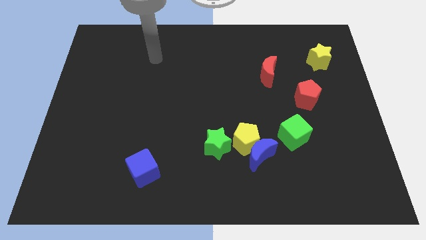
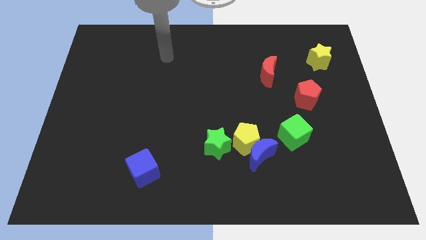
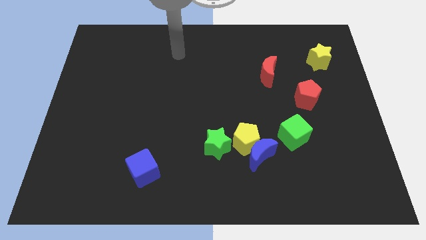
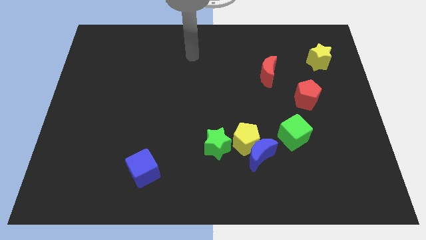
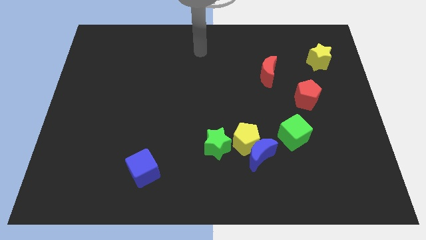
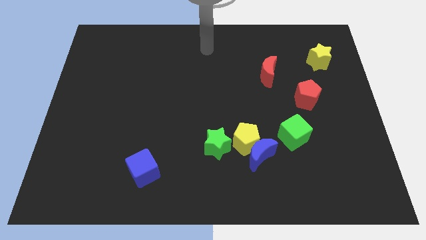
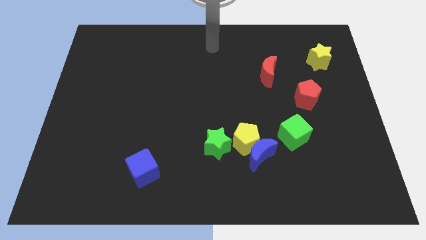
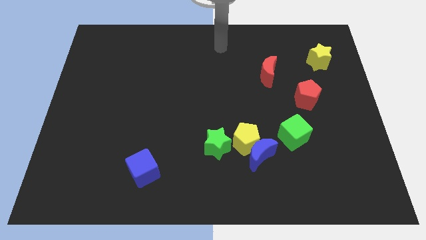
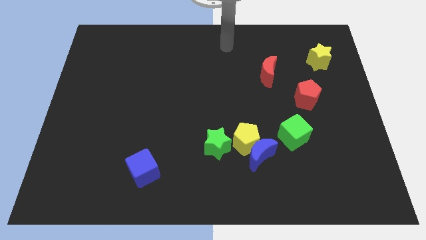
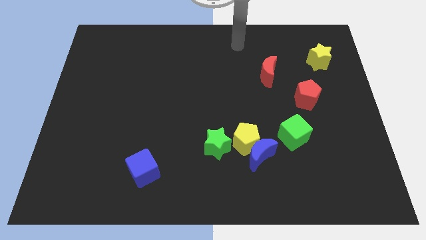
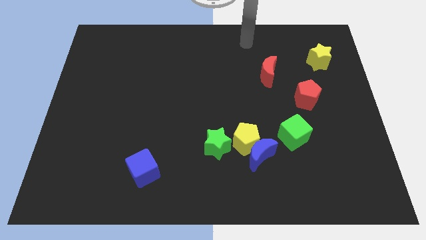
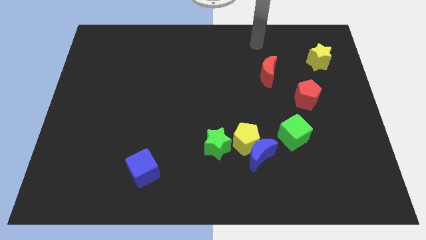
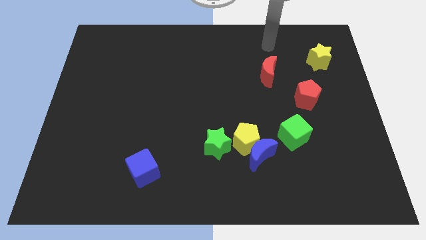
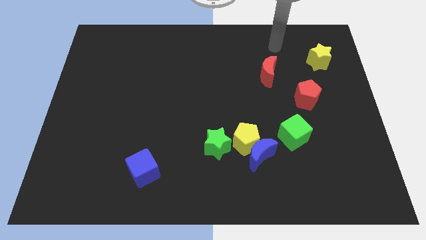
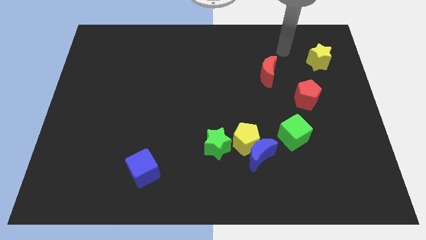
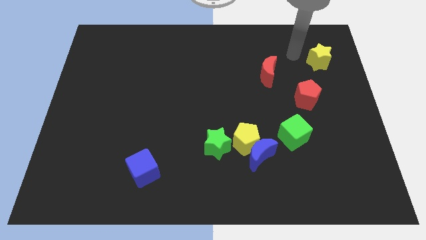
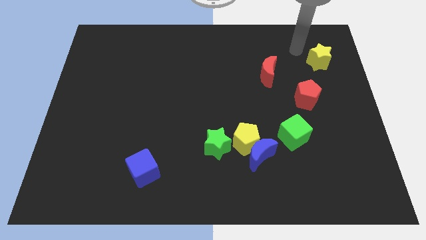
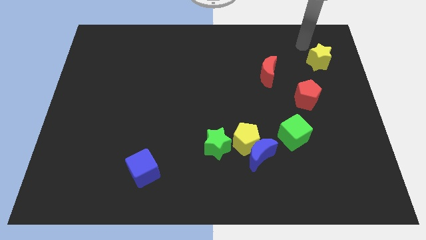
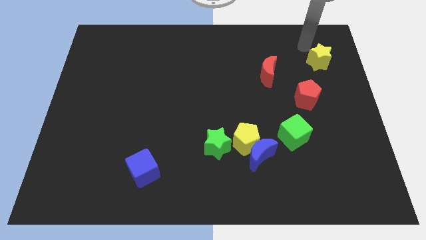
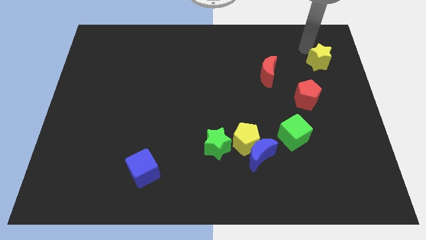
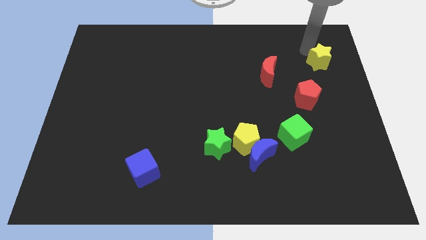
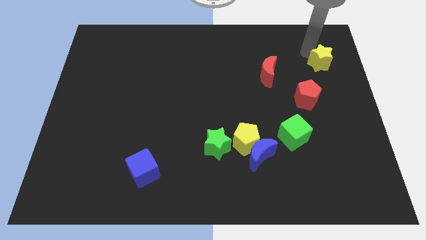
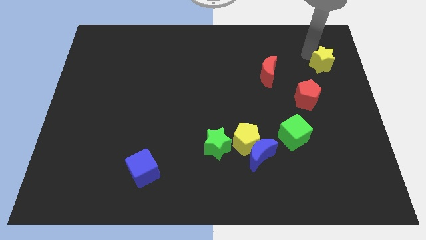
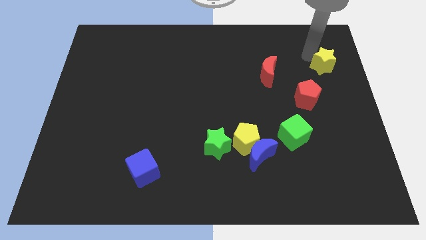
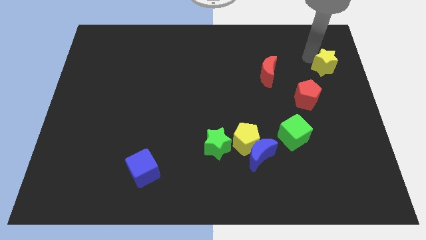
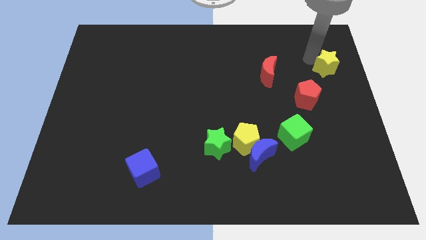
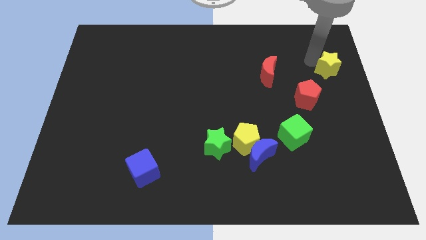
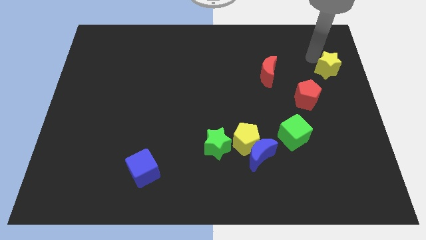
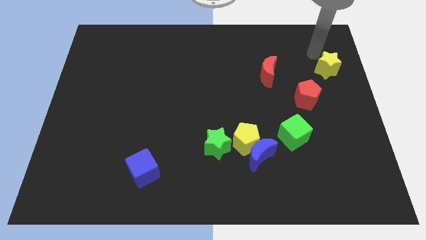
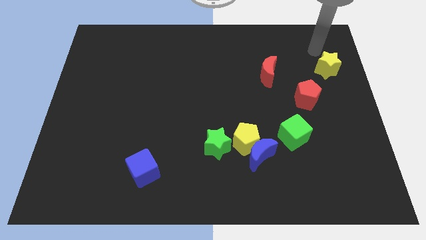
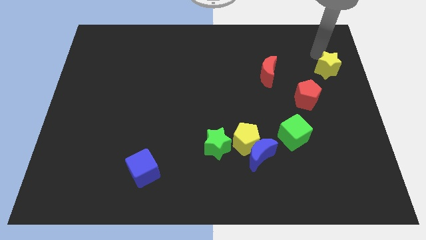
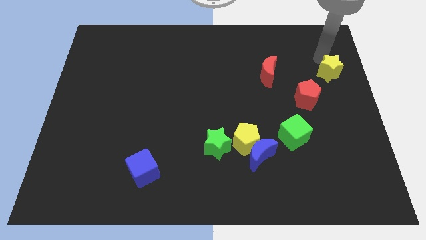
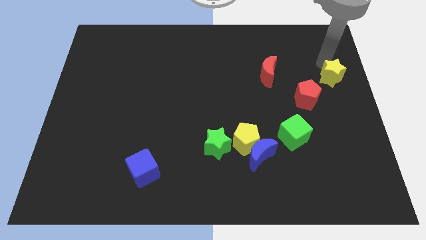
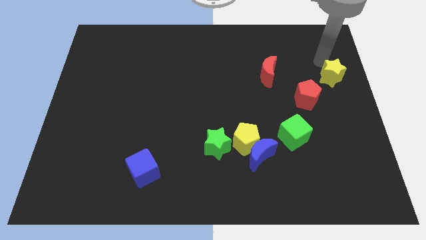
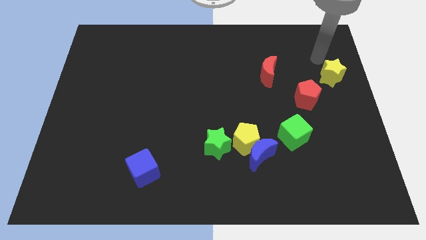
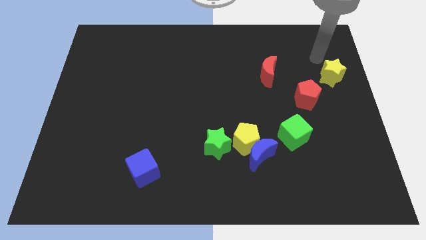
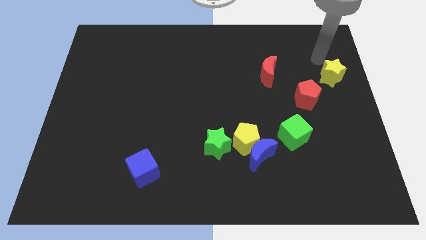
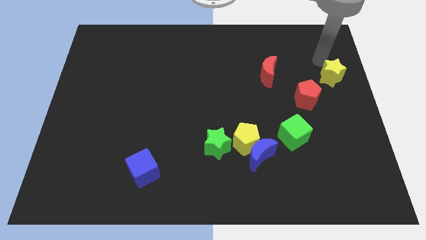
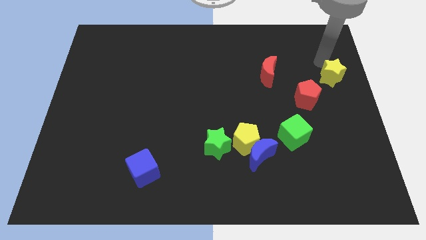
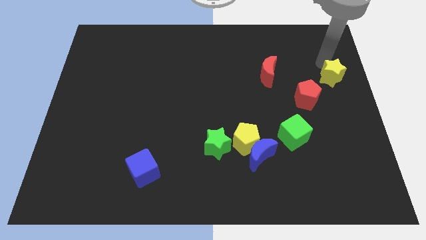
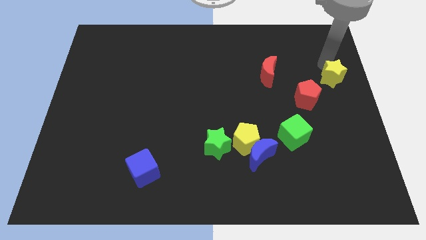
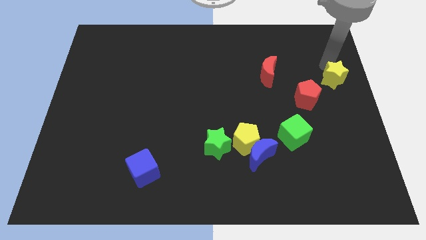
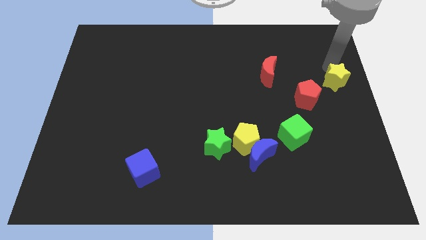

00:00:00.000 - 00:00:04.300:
slightly slide the yellow star downwards

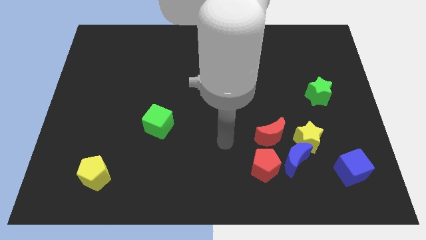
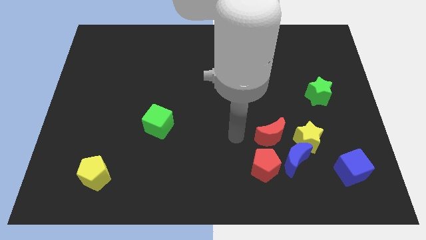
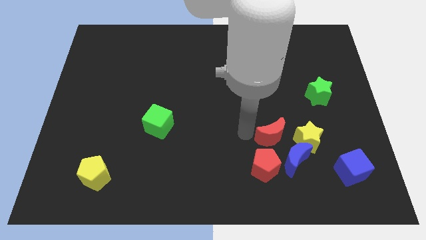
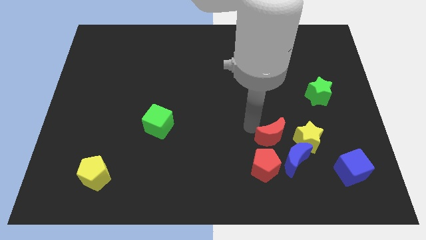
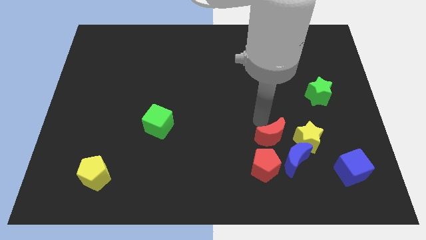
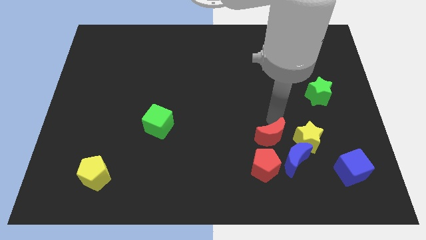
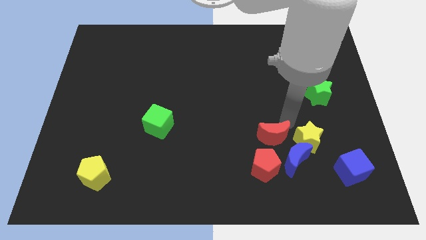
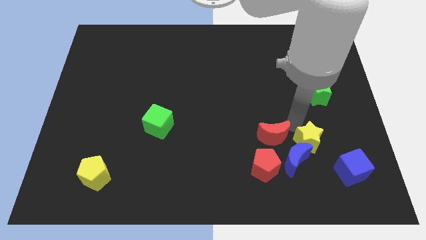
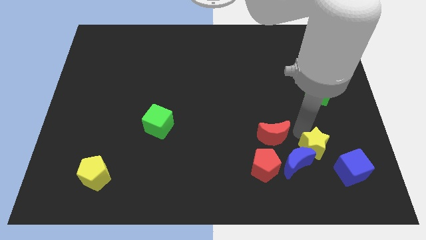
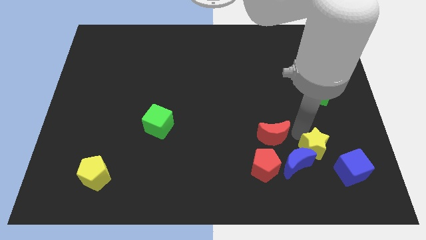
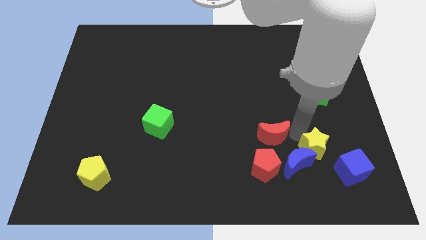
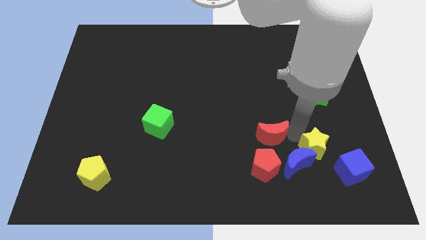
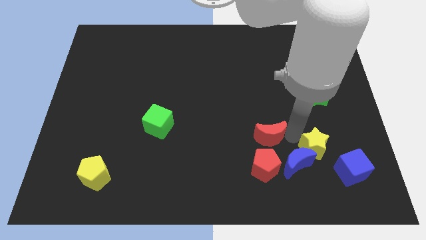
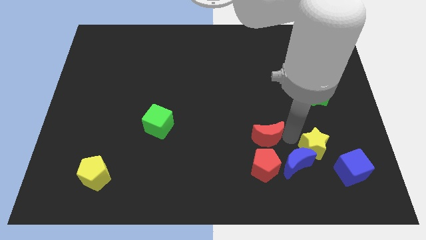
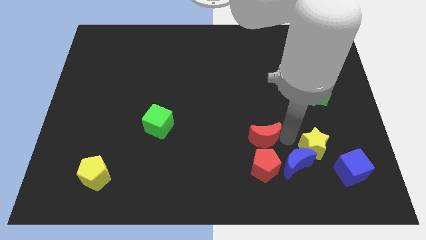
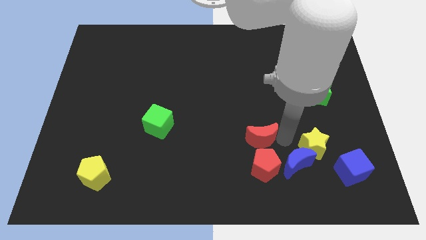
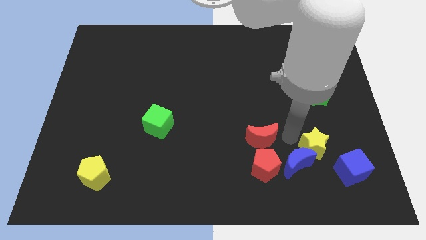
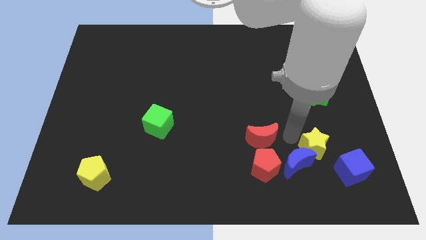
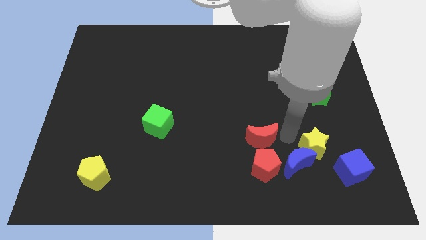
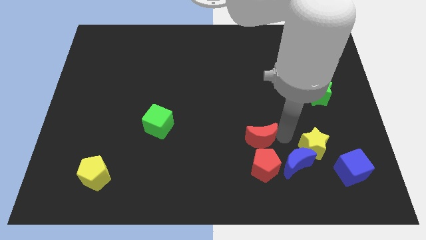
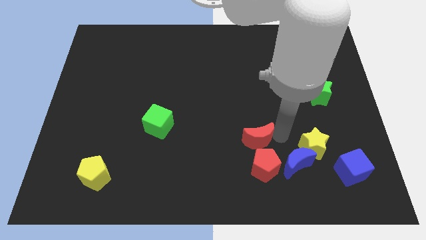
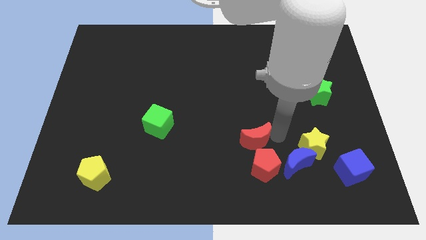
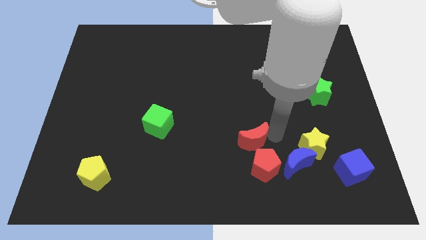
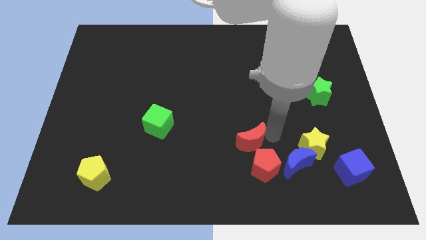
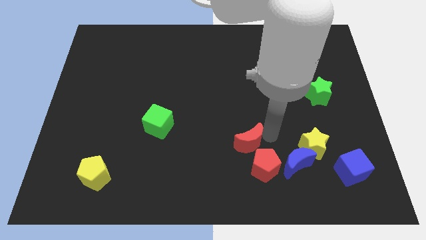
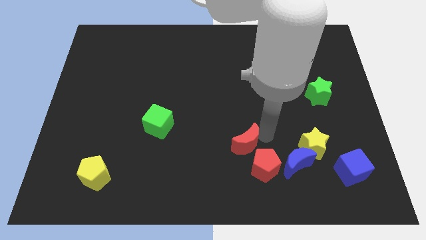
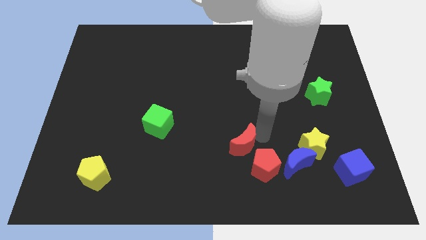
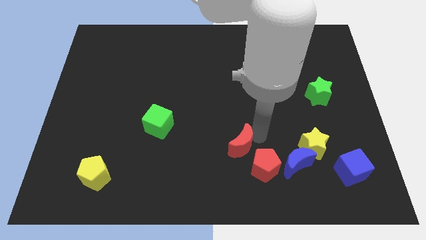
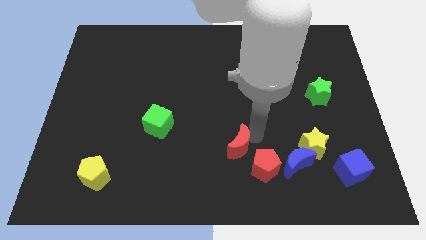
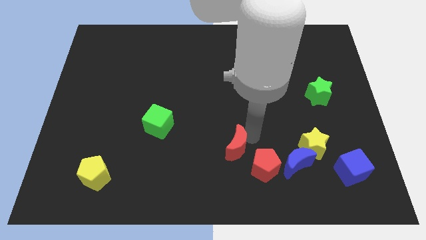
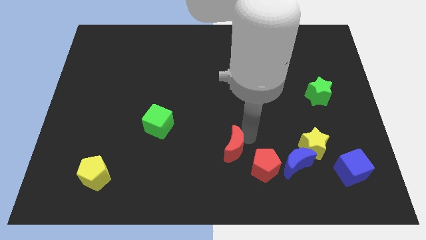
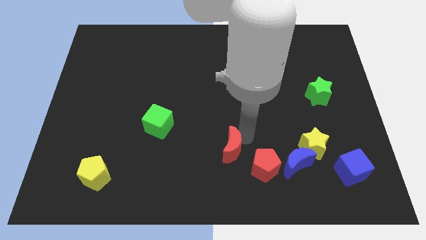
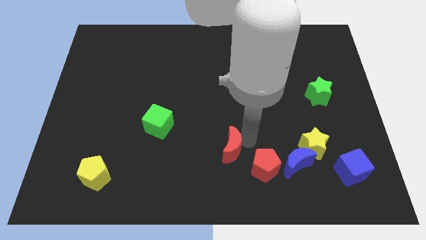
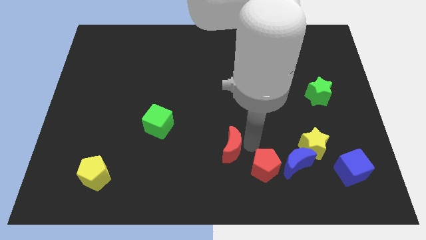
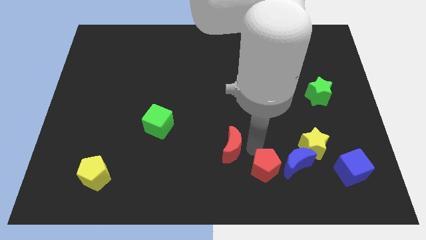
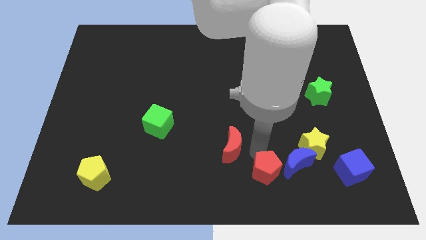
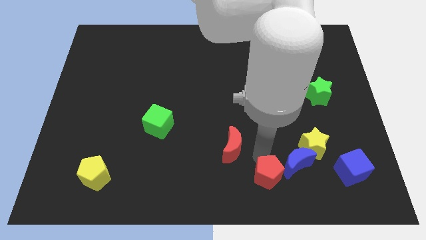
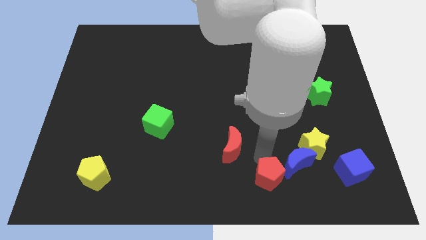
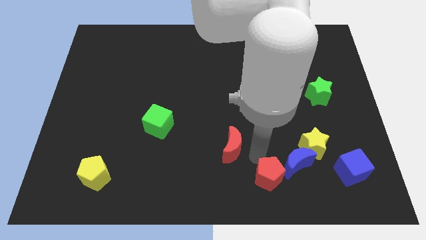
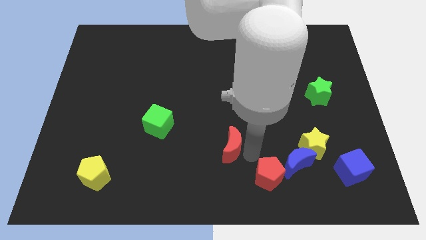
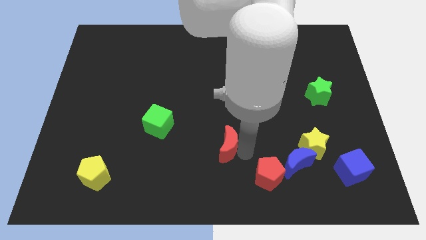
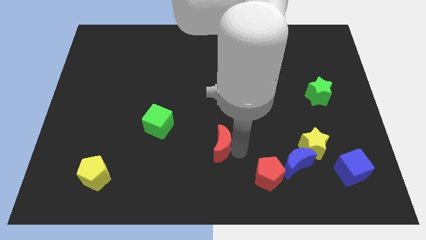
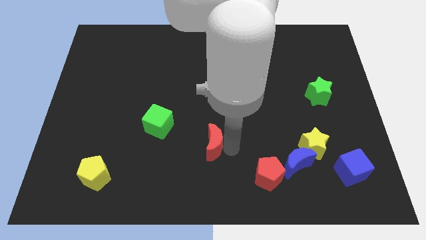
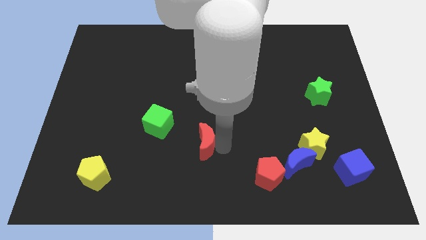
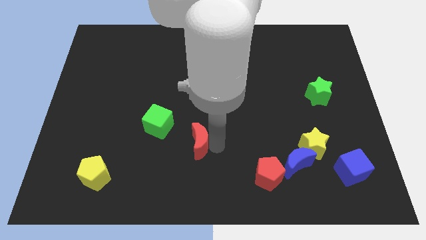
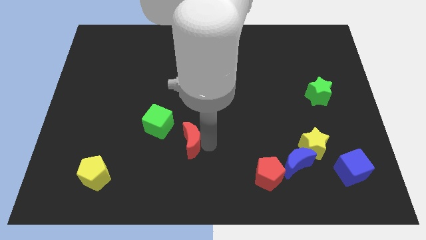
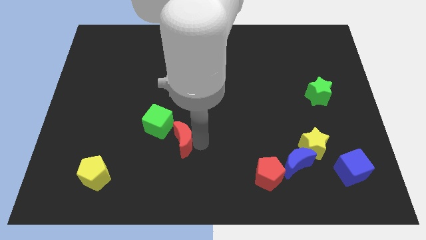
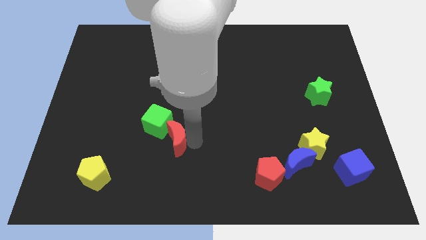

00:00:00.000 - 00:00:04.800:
push the red moon left
